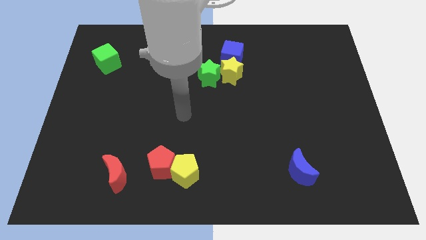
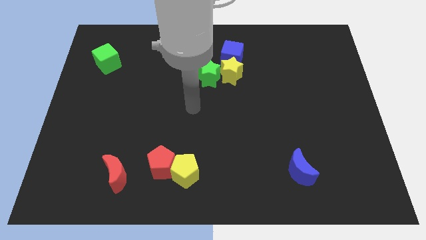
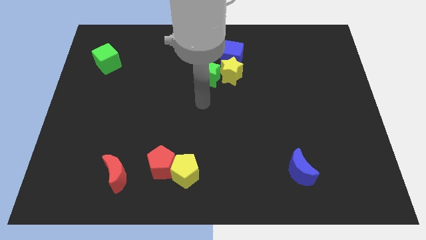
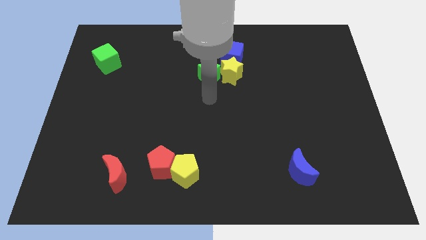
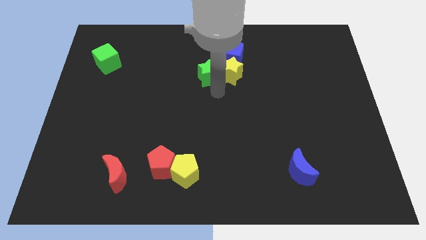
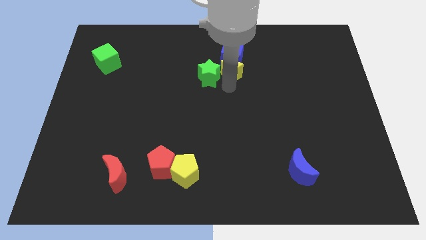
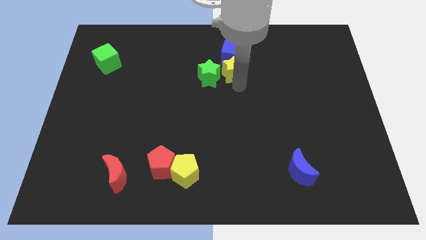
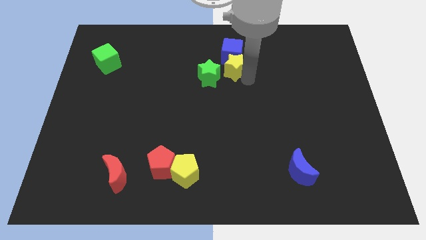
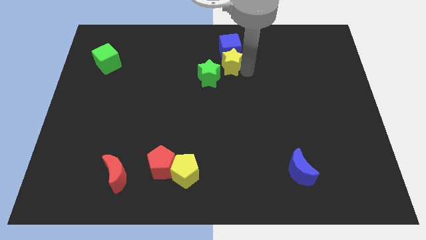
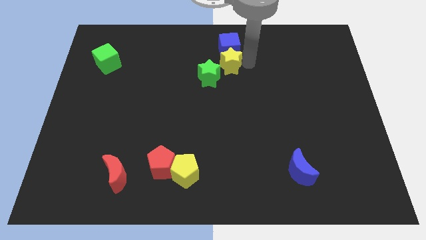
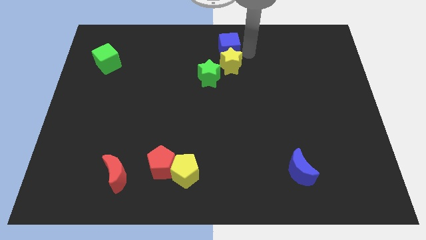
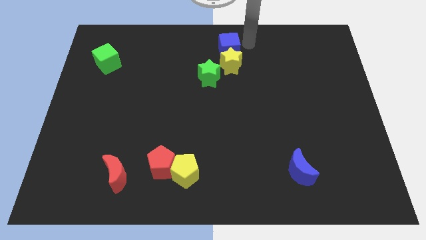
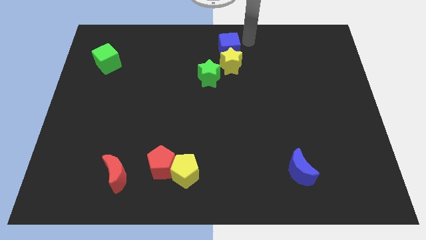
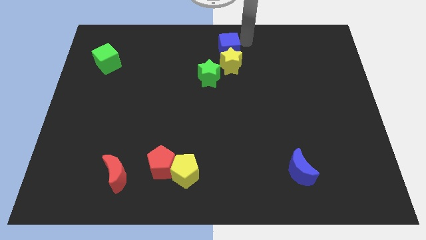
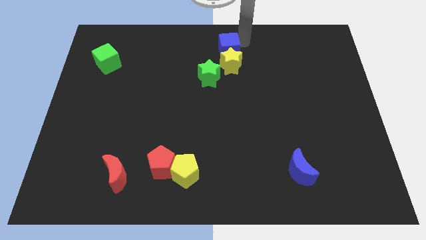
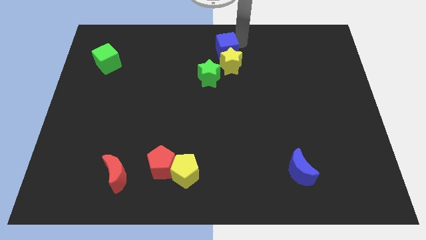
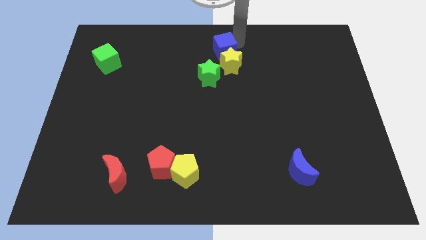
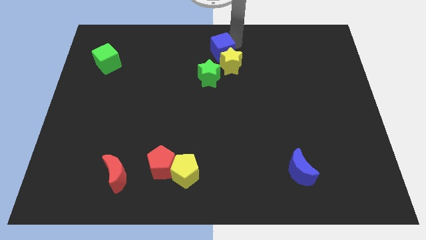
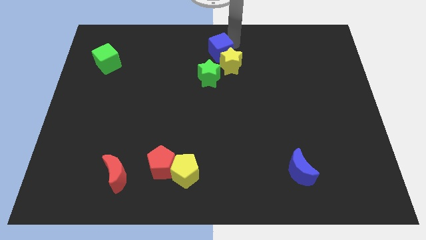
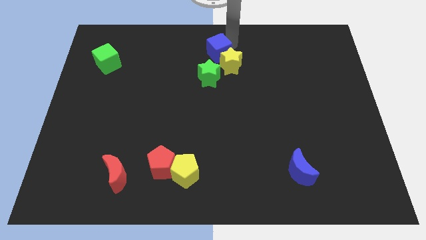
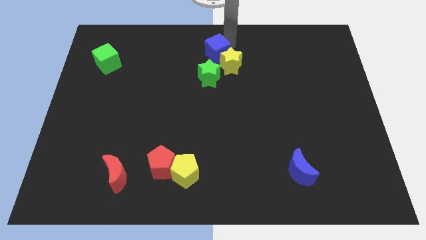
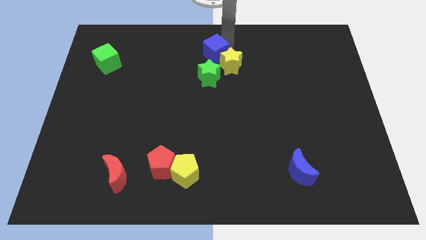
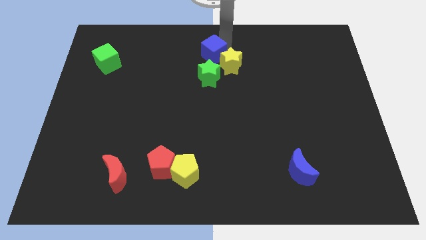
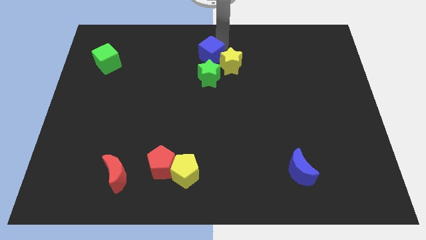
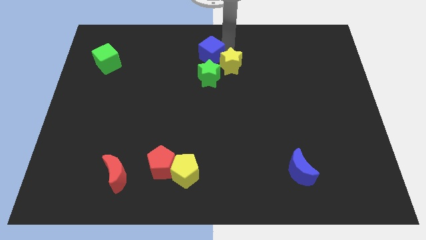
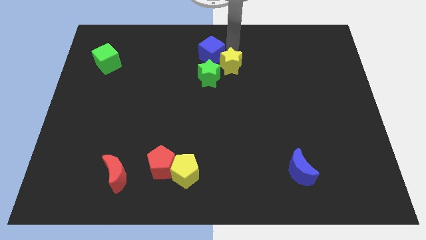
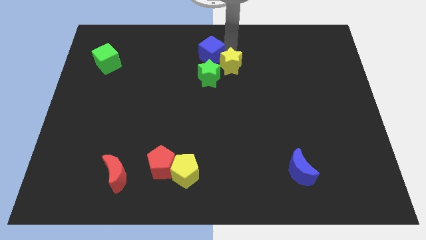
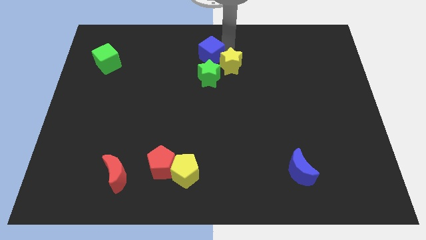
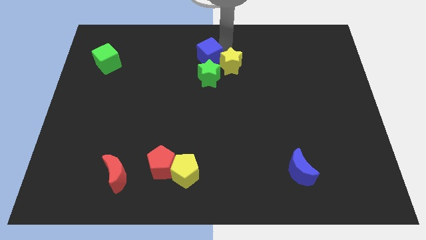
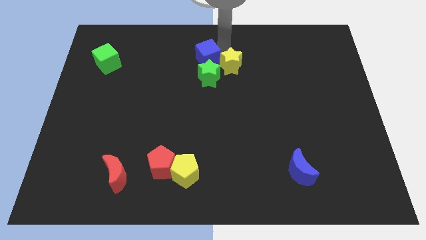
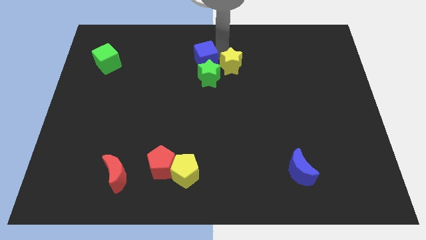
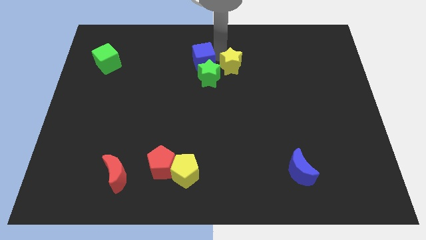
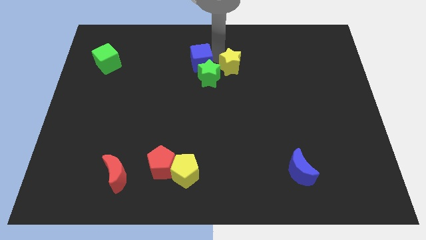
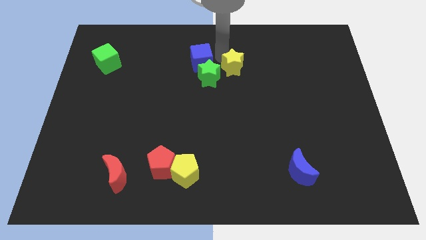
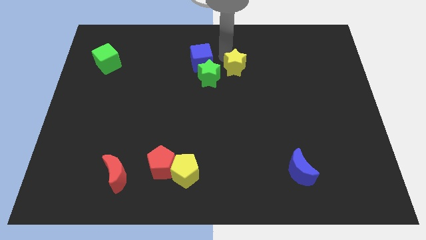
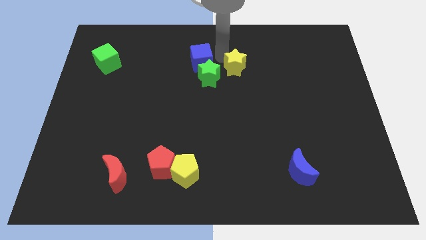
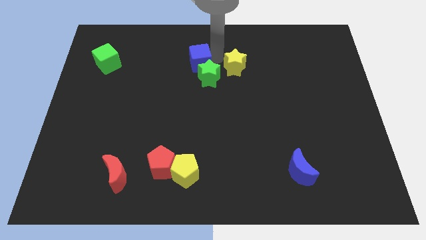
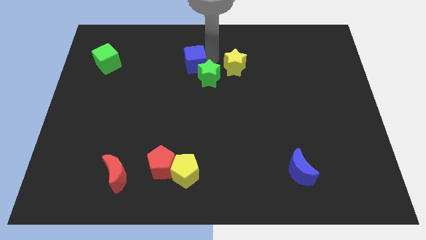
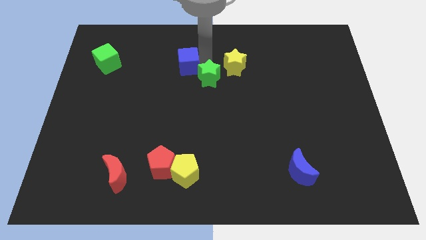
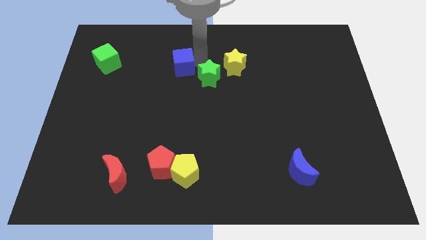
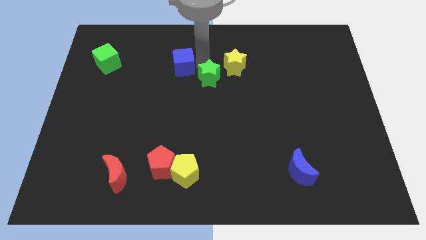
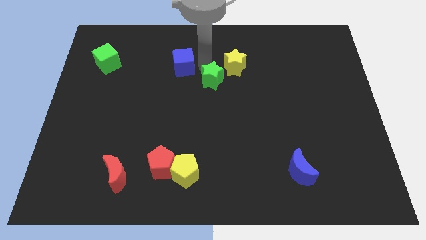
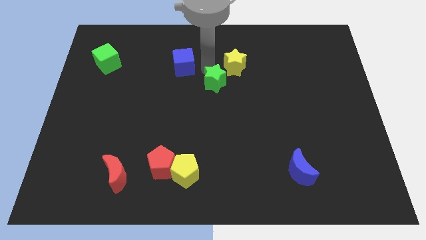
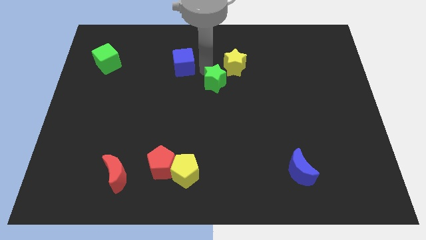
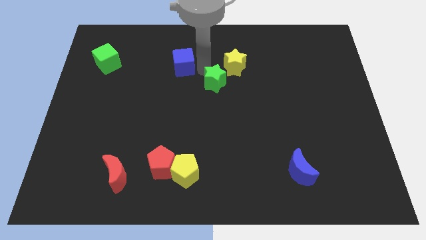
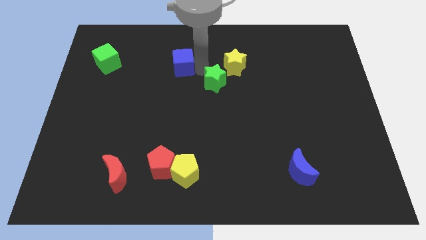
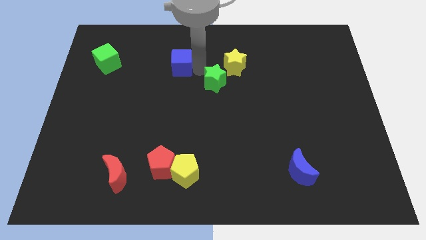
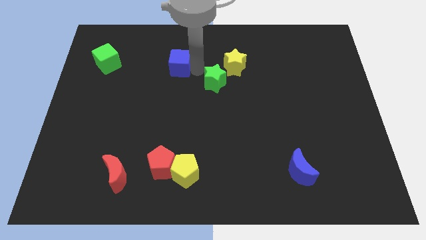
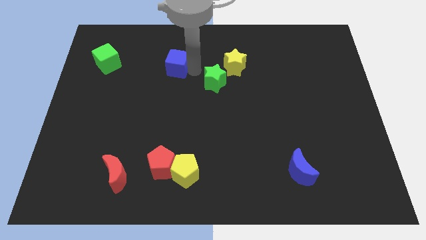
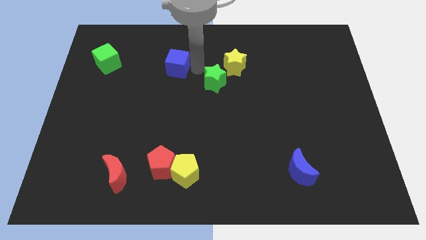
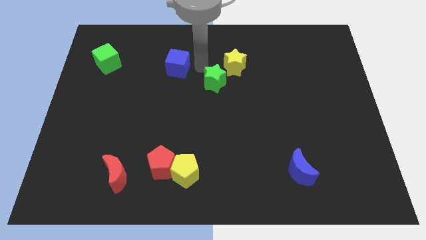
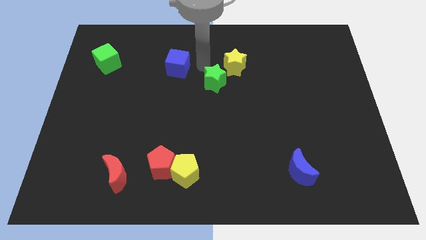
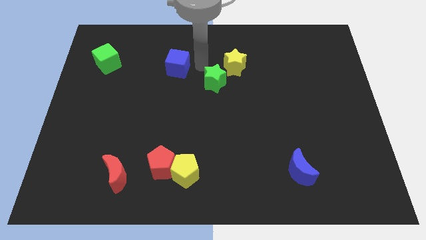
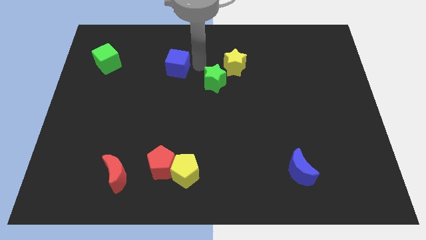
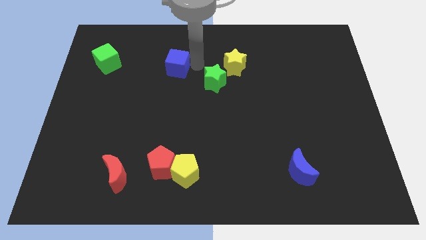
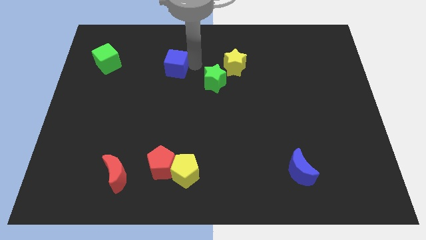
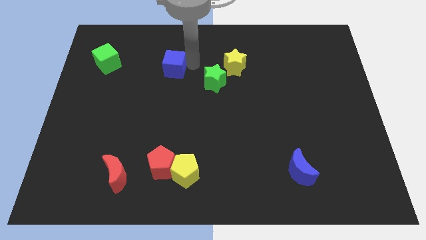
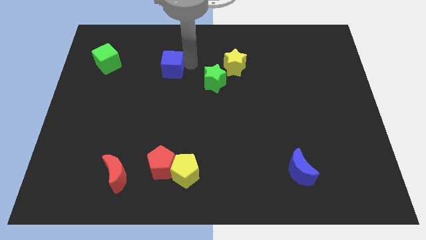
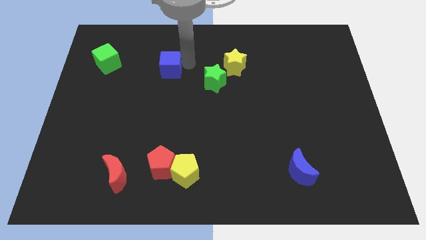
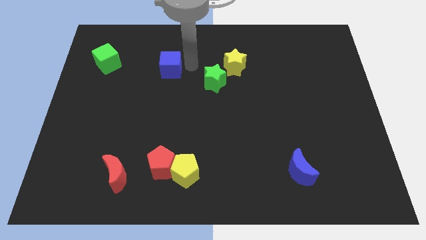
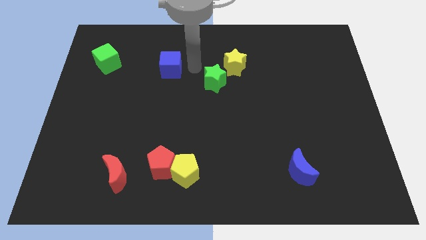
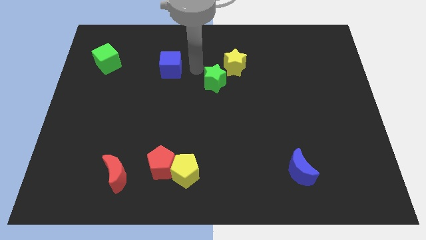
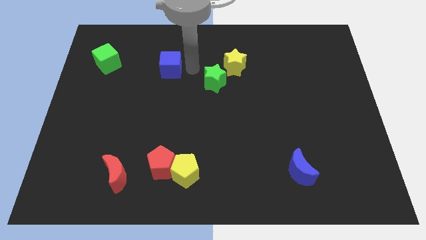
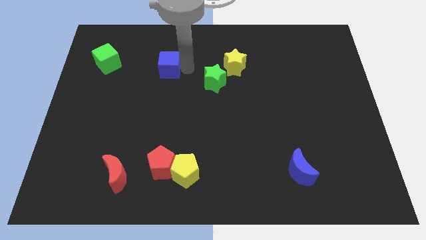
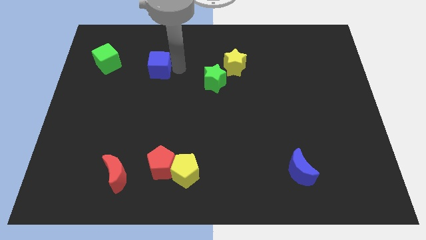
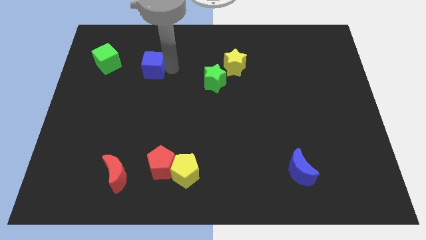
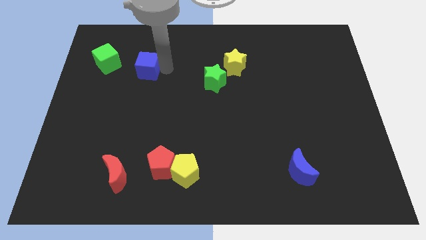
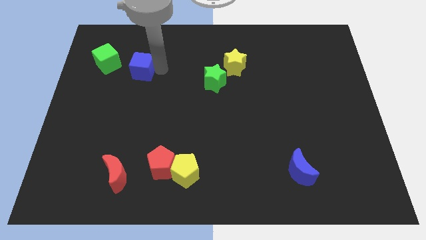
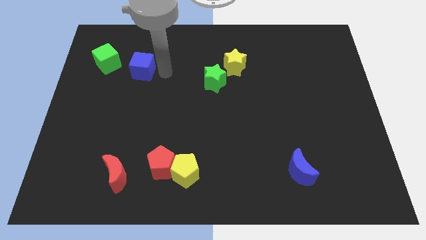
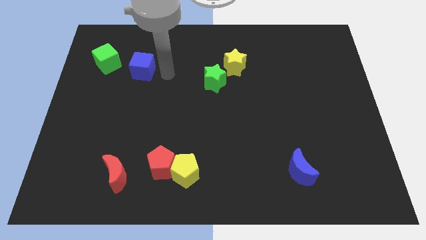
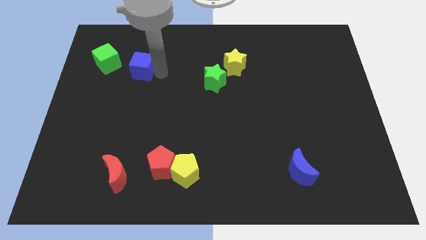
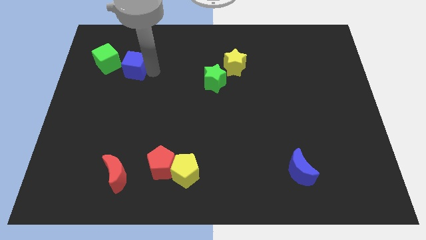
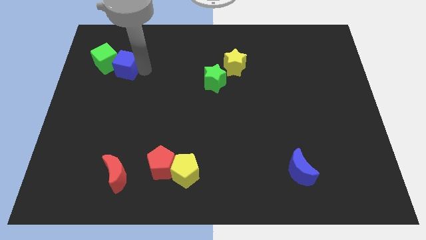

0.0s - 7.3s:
slide the blue cube towards the green cube
